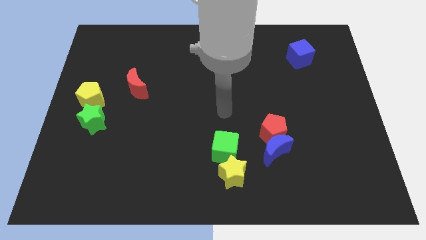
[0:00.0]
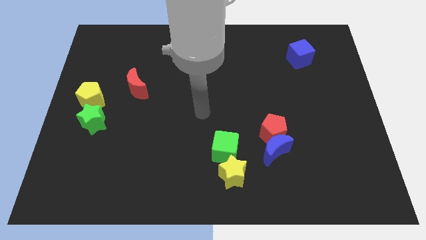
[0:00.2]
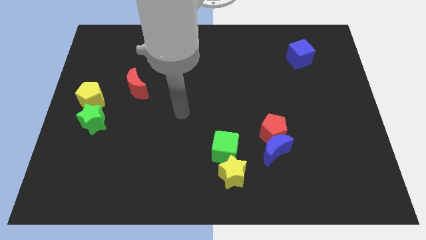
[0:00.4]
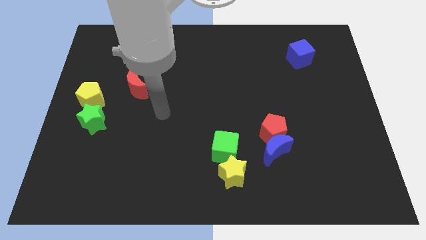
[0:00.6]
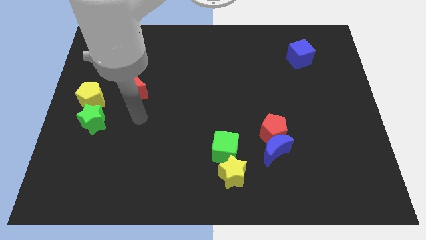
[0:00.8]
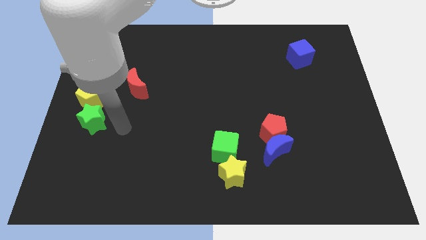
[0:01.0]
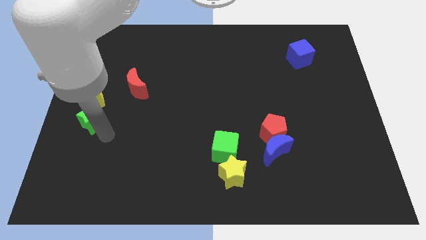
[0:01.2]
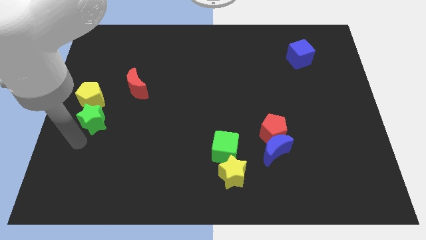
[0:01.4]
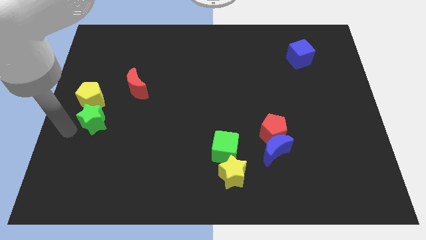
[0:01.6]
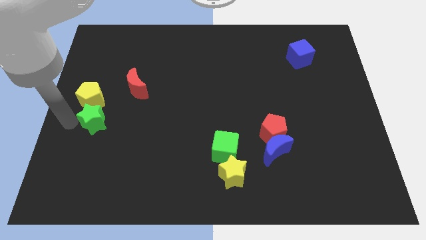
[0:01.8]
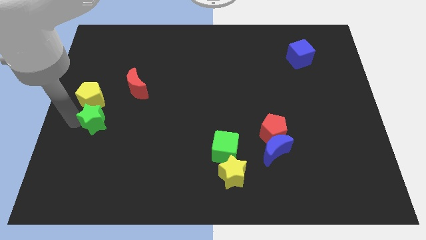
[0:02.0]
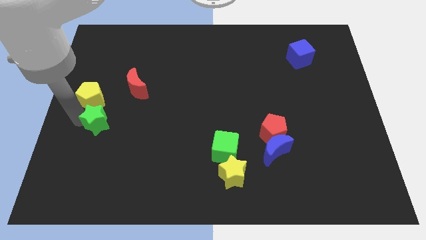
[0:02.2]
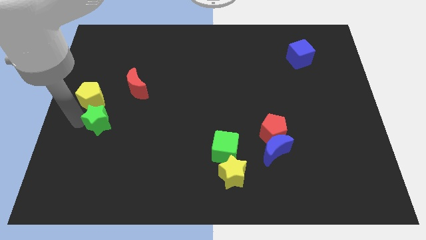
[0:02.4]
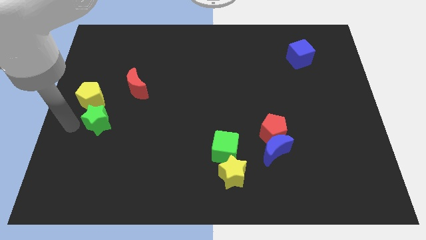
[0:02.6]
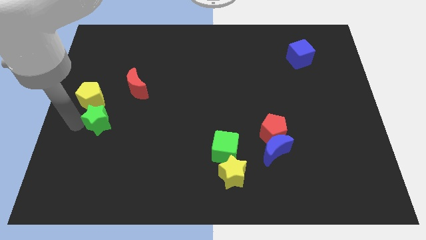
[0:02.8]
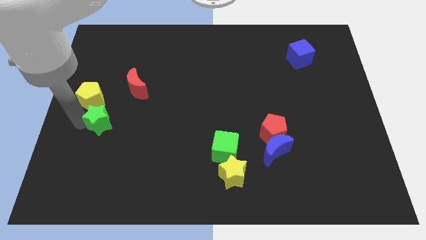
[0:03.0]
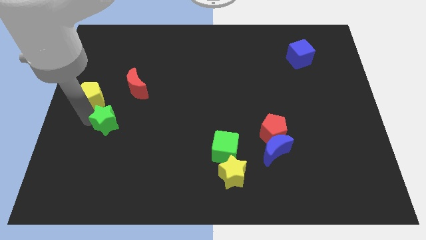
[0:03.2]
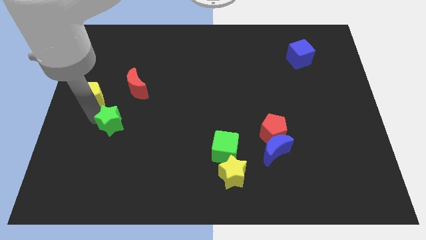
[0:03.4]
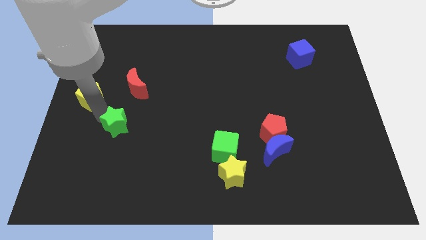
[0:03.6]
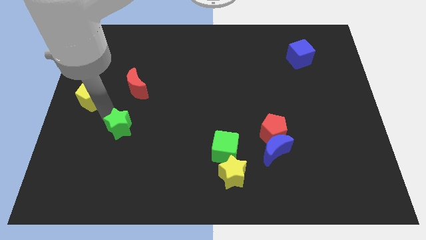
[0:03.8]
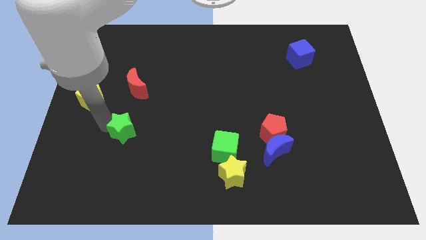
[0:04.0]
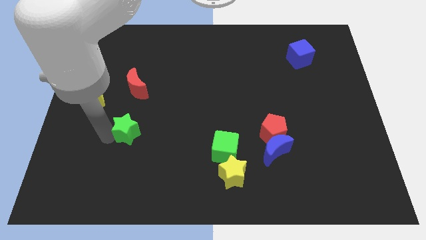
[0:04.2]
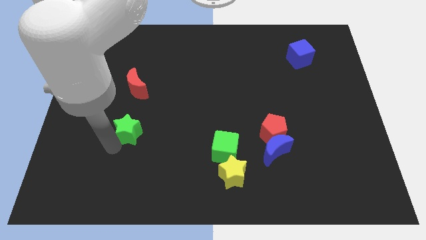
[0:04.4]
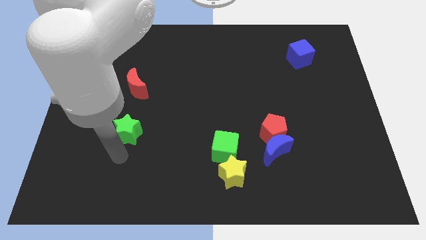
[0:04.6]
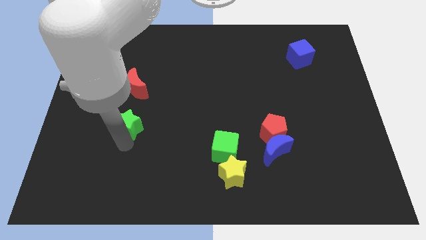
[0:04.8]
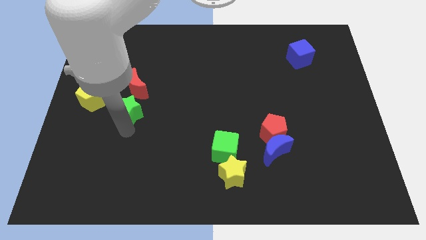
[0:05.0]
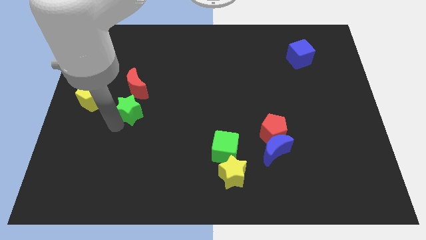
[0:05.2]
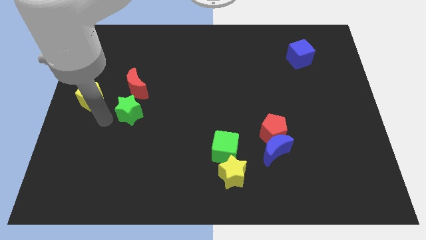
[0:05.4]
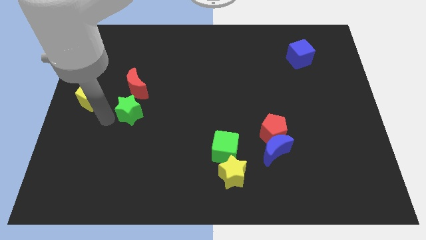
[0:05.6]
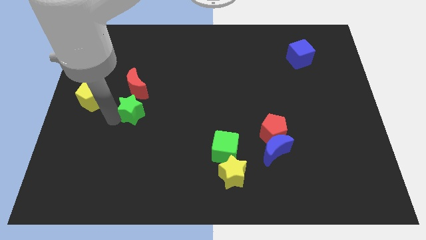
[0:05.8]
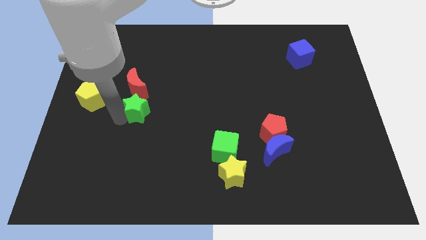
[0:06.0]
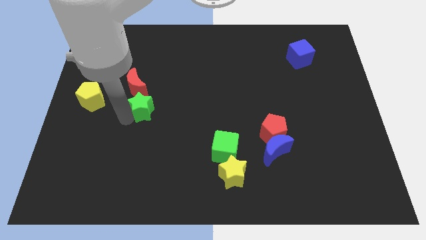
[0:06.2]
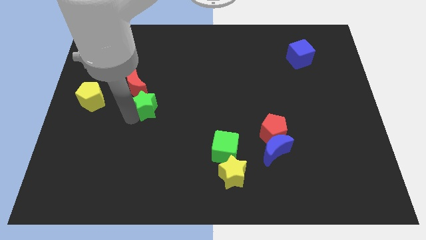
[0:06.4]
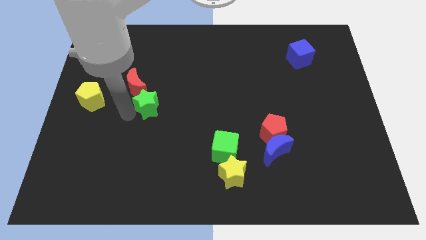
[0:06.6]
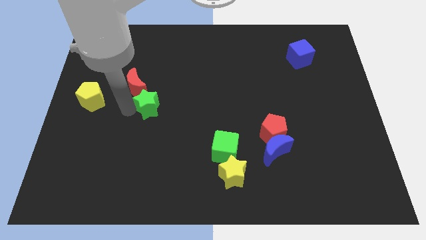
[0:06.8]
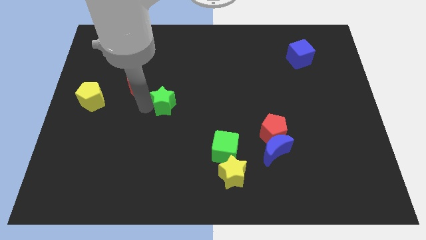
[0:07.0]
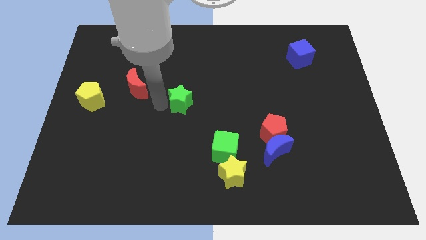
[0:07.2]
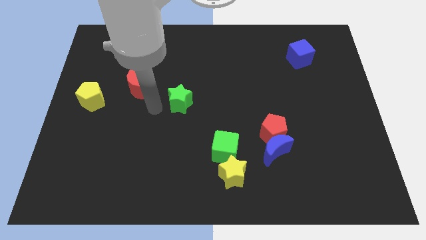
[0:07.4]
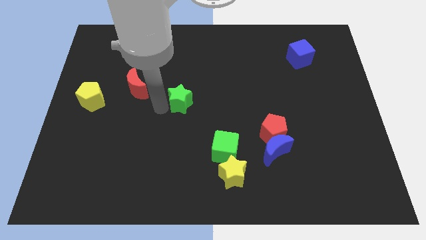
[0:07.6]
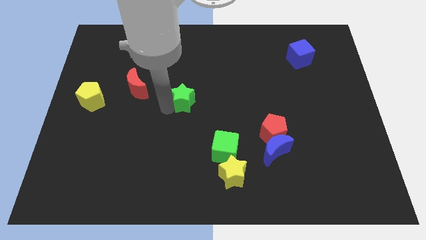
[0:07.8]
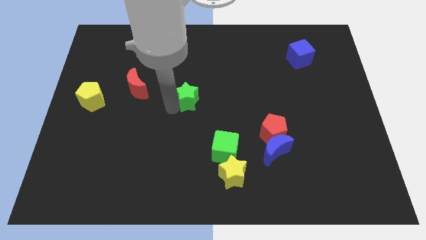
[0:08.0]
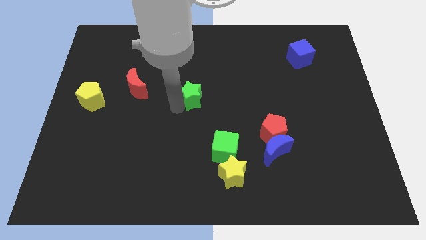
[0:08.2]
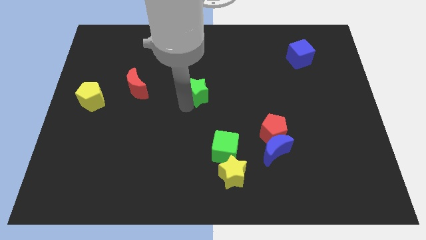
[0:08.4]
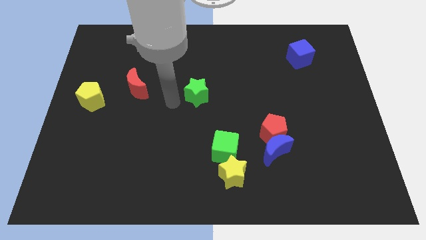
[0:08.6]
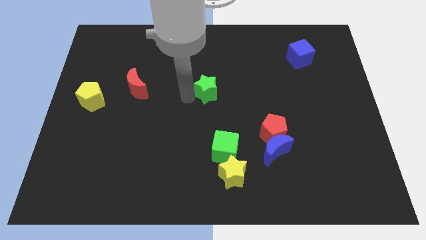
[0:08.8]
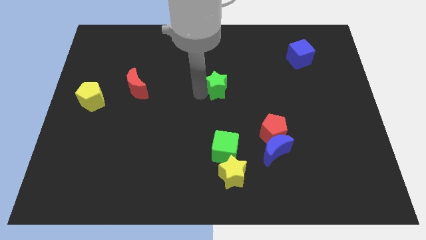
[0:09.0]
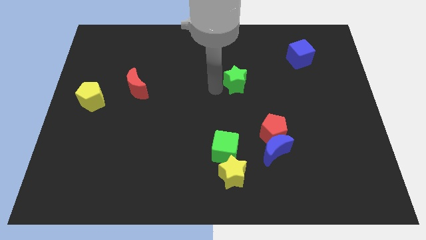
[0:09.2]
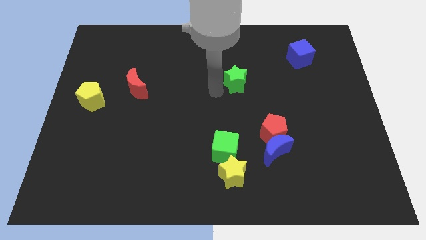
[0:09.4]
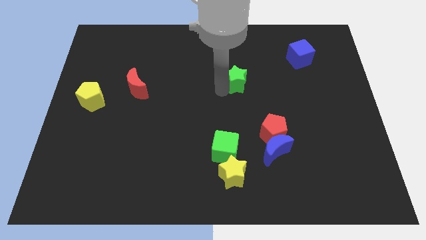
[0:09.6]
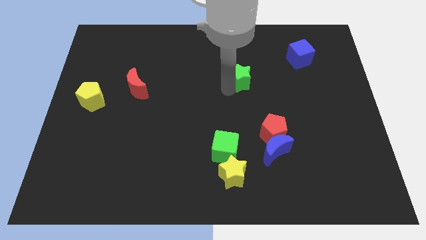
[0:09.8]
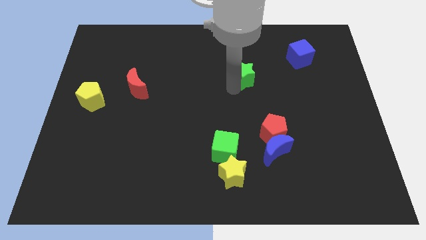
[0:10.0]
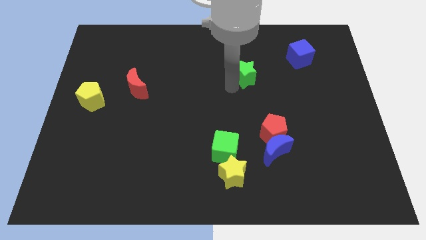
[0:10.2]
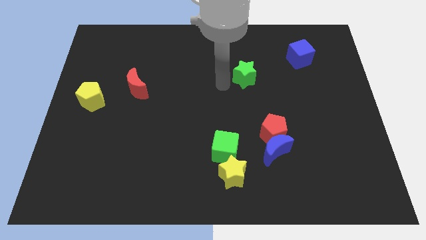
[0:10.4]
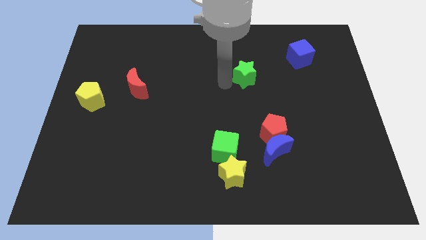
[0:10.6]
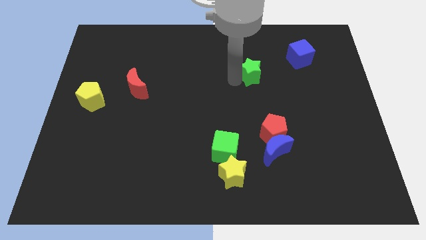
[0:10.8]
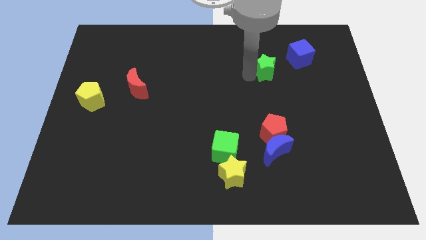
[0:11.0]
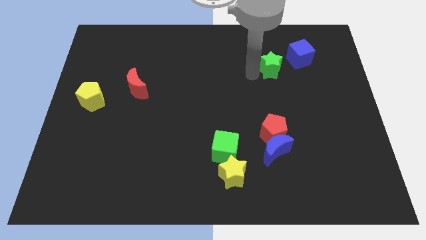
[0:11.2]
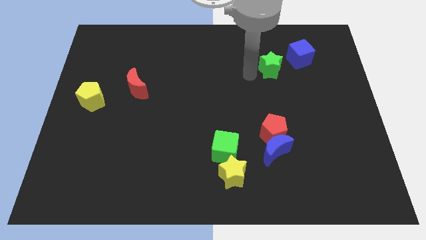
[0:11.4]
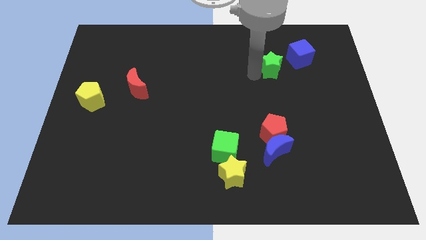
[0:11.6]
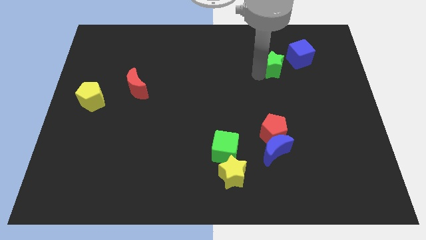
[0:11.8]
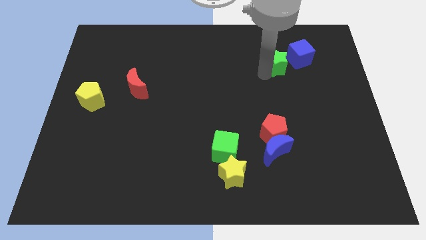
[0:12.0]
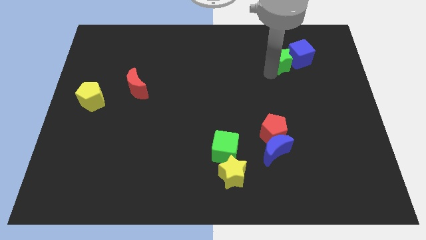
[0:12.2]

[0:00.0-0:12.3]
move the green star next to the blue cube

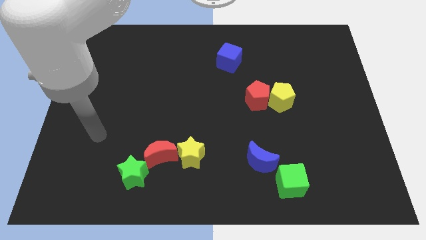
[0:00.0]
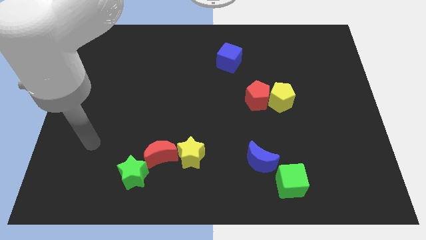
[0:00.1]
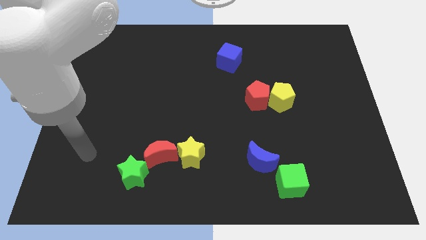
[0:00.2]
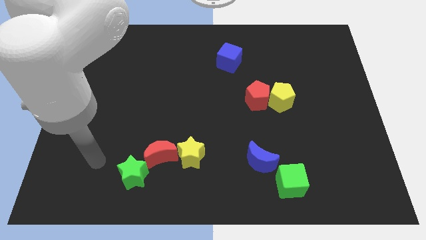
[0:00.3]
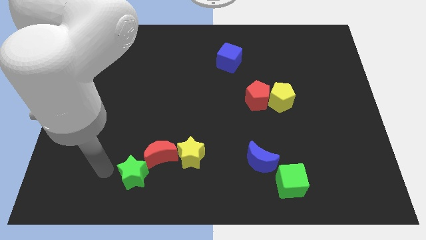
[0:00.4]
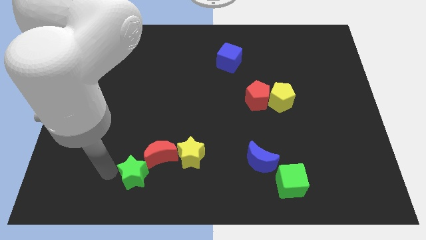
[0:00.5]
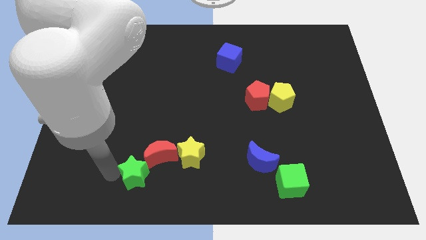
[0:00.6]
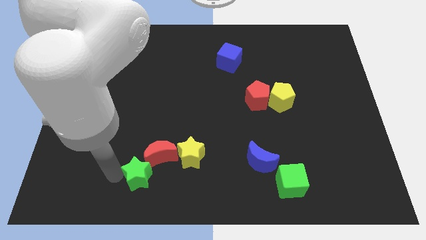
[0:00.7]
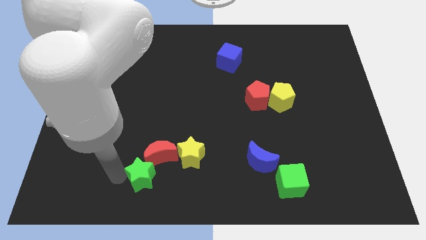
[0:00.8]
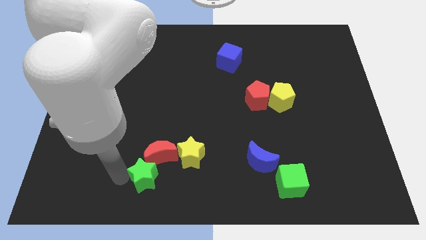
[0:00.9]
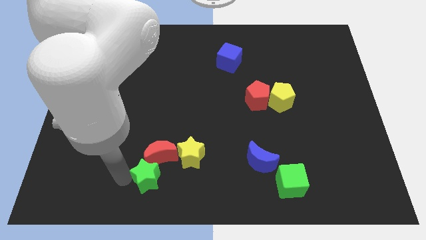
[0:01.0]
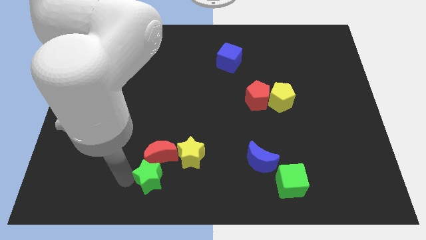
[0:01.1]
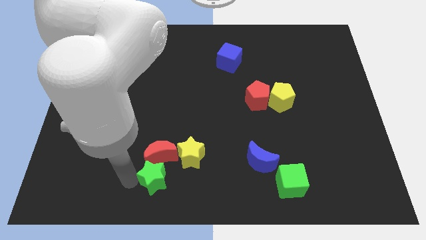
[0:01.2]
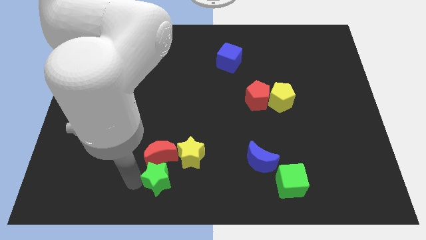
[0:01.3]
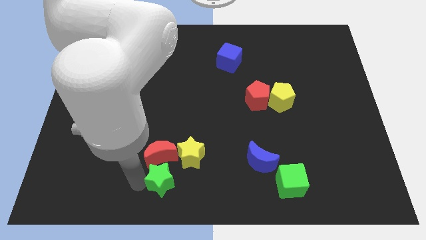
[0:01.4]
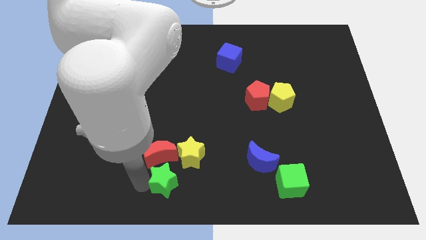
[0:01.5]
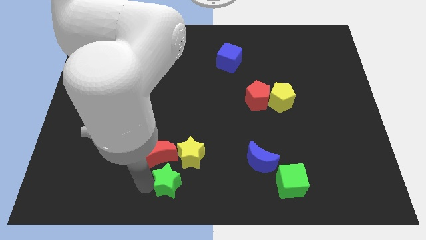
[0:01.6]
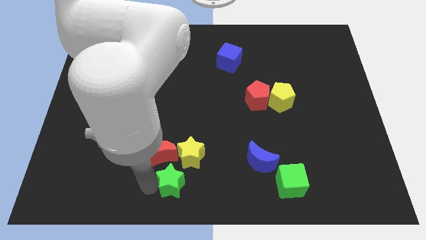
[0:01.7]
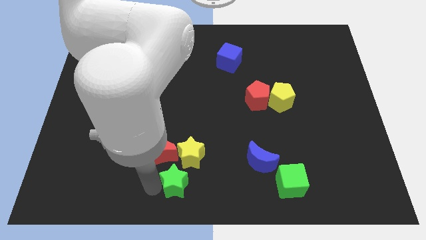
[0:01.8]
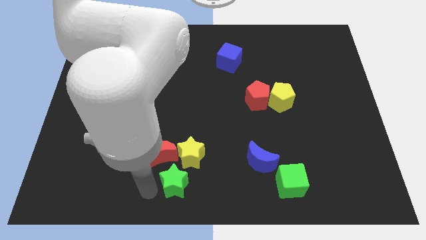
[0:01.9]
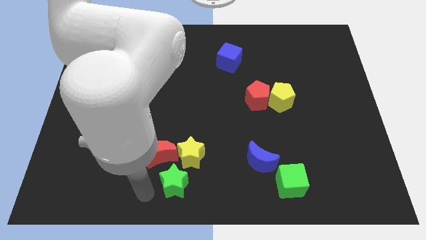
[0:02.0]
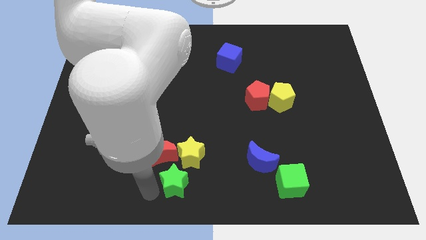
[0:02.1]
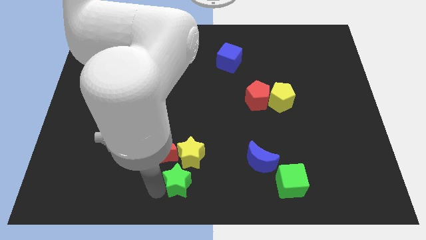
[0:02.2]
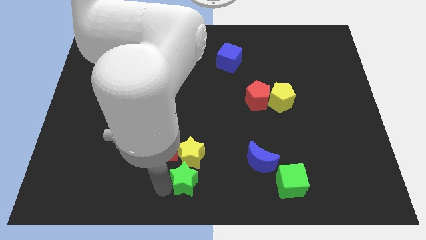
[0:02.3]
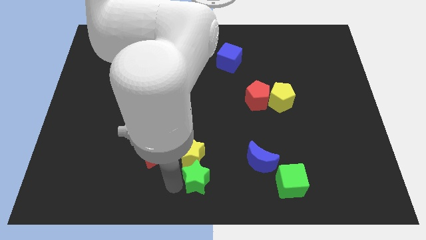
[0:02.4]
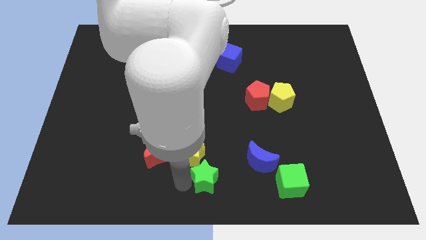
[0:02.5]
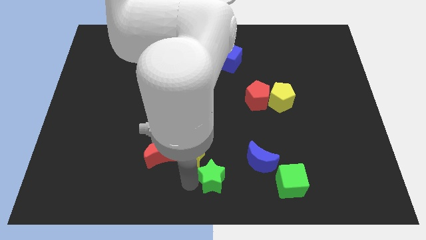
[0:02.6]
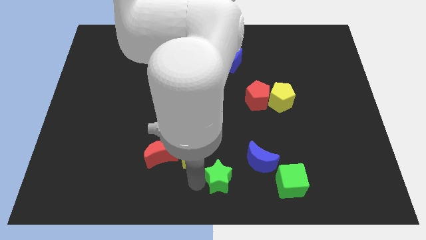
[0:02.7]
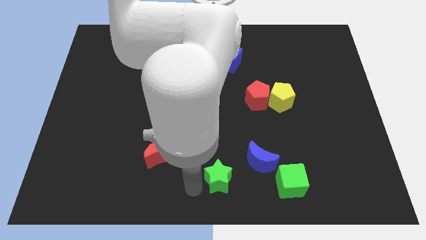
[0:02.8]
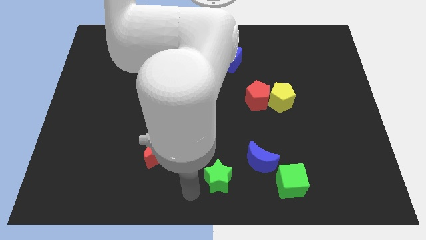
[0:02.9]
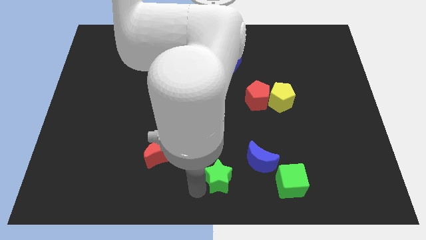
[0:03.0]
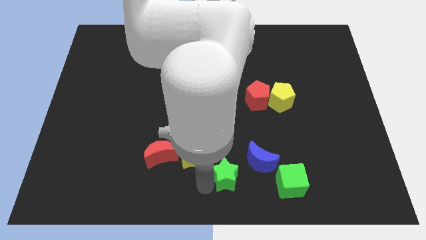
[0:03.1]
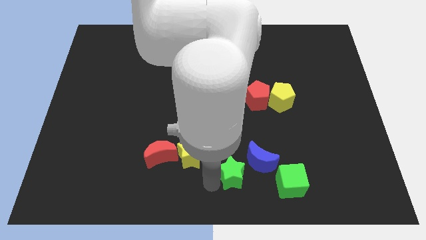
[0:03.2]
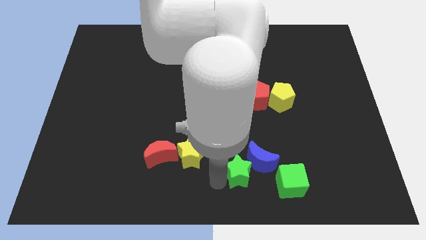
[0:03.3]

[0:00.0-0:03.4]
slide the green star close to the blue moon
